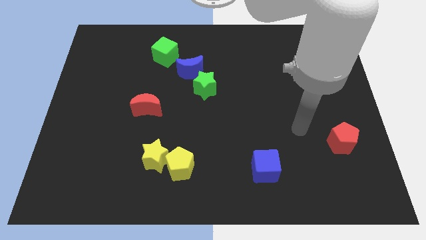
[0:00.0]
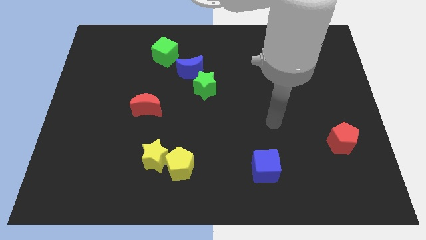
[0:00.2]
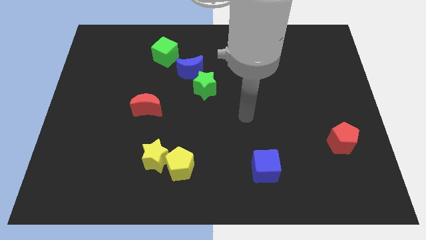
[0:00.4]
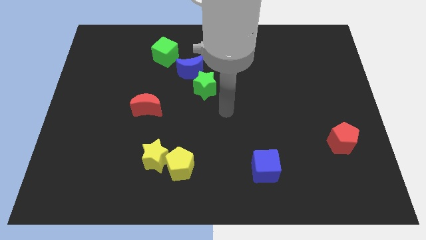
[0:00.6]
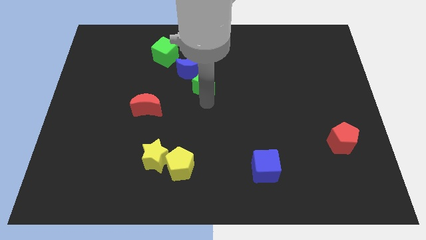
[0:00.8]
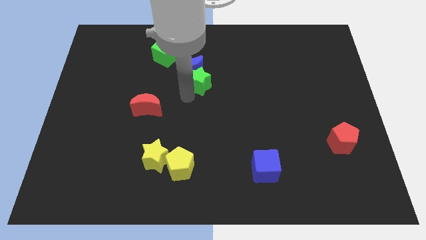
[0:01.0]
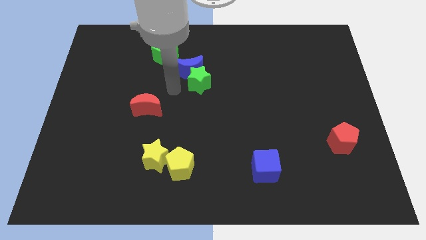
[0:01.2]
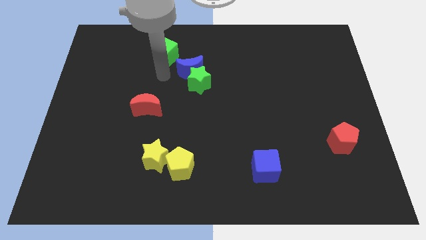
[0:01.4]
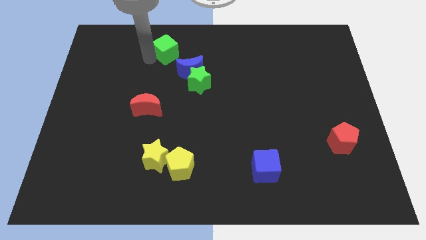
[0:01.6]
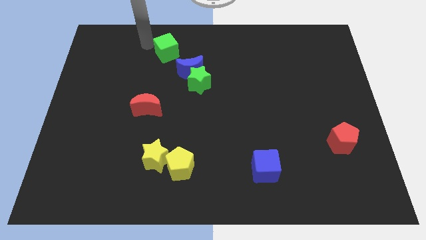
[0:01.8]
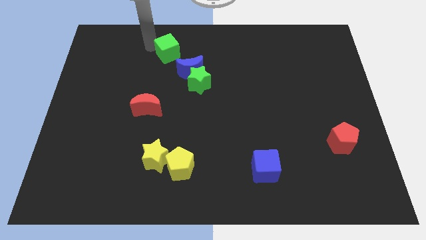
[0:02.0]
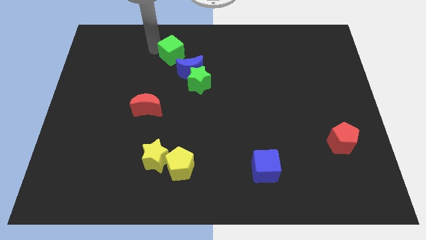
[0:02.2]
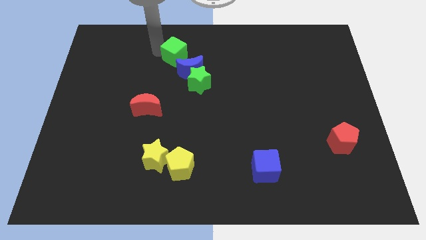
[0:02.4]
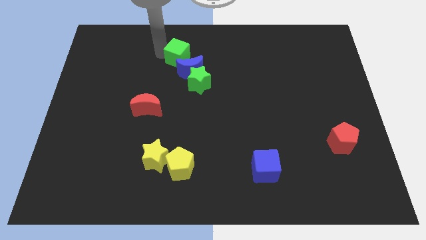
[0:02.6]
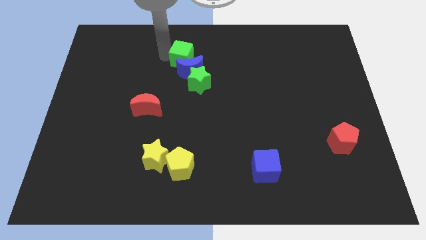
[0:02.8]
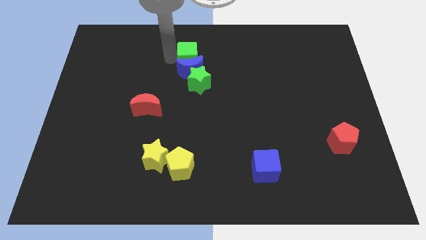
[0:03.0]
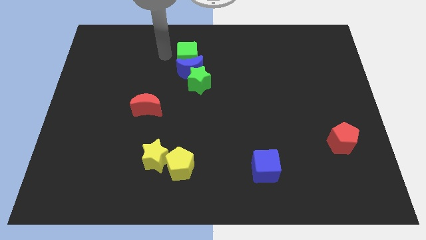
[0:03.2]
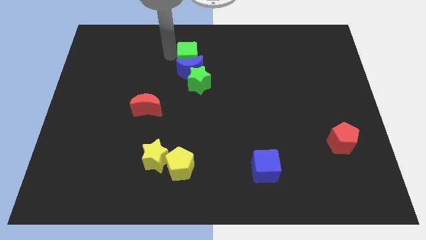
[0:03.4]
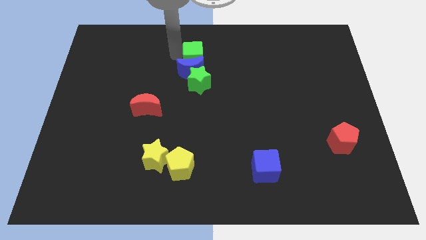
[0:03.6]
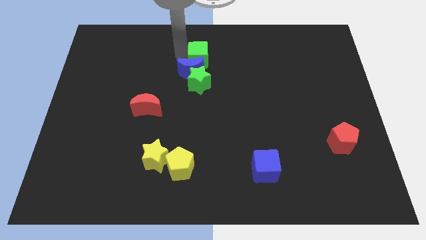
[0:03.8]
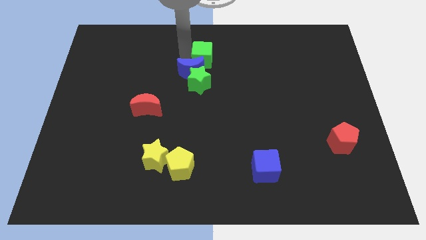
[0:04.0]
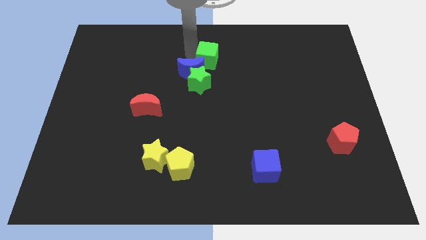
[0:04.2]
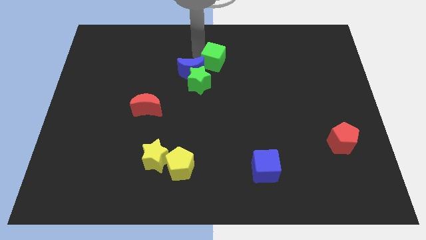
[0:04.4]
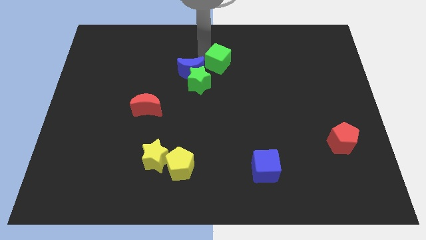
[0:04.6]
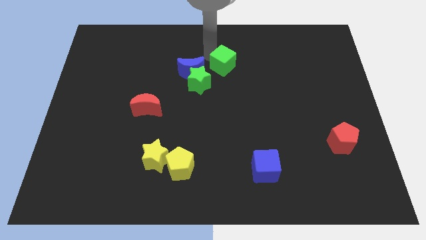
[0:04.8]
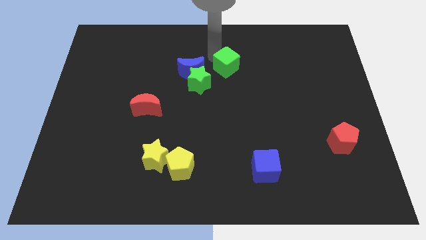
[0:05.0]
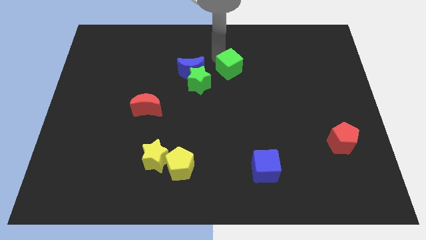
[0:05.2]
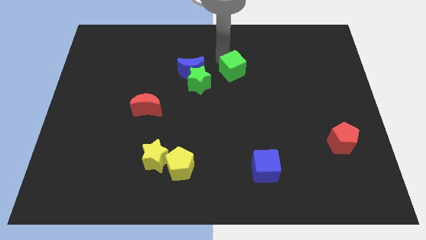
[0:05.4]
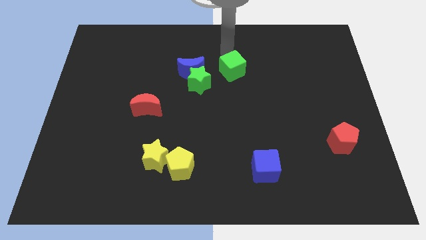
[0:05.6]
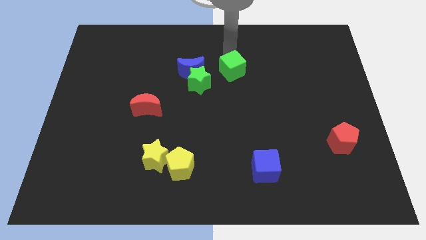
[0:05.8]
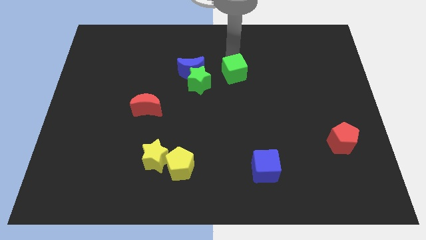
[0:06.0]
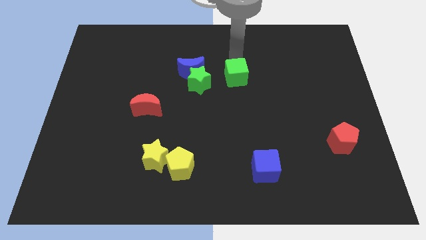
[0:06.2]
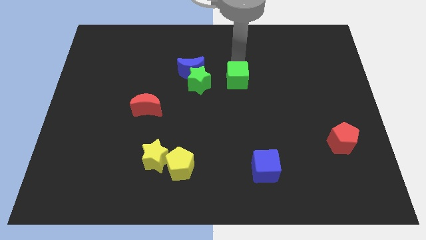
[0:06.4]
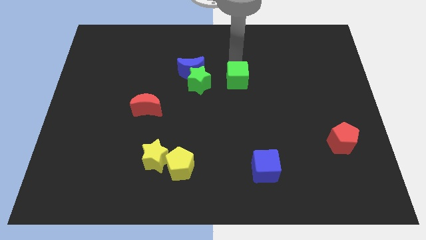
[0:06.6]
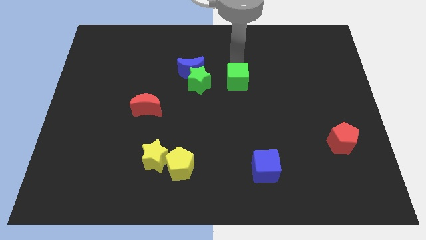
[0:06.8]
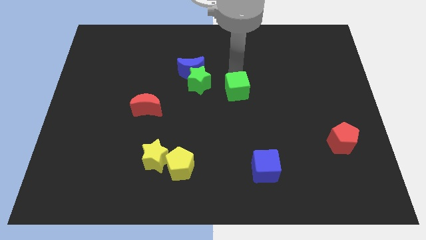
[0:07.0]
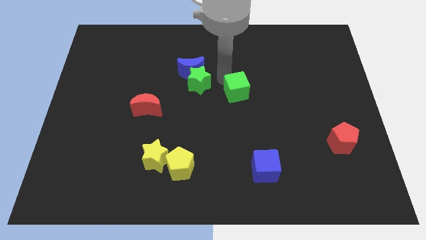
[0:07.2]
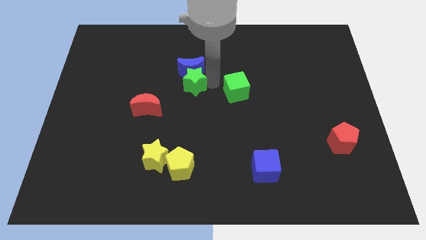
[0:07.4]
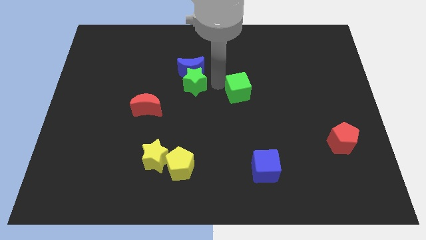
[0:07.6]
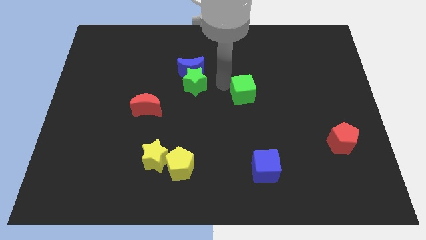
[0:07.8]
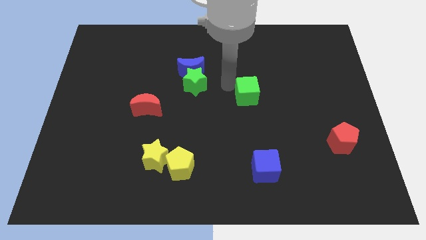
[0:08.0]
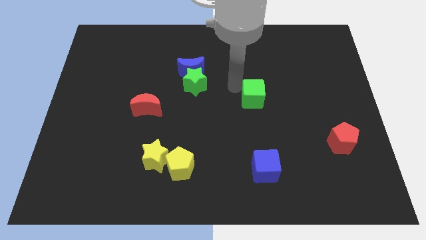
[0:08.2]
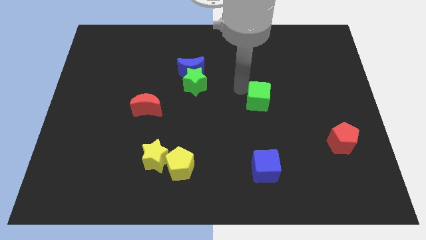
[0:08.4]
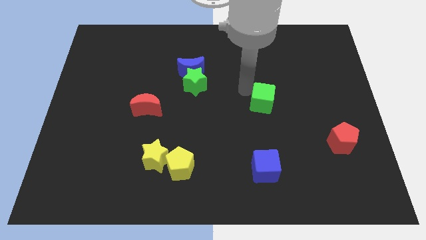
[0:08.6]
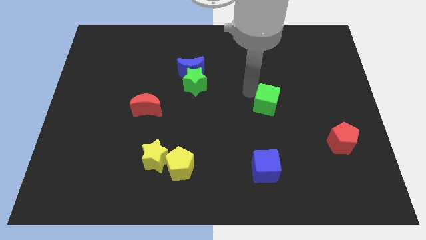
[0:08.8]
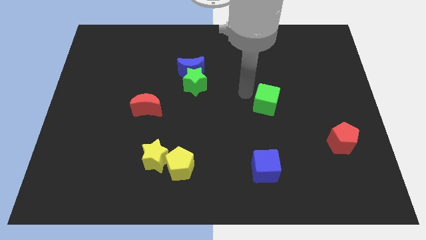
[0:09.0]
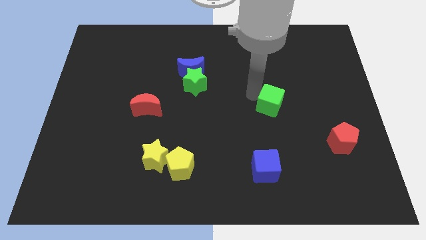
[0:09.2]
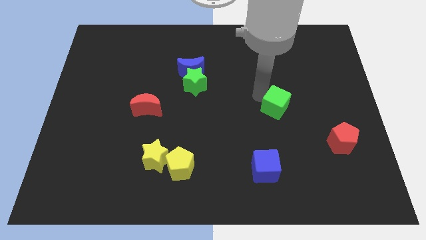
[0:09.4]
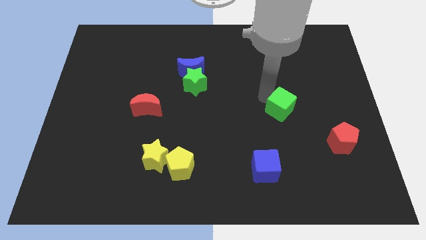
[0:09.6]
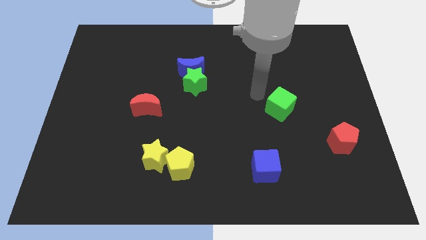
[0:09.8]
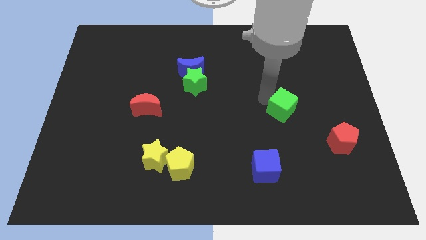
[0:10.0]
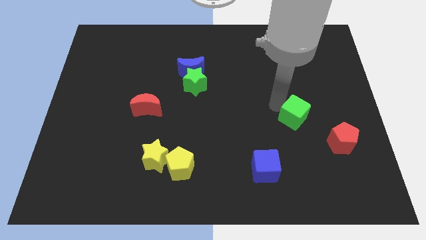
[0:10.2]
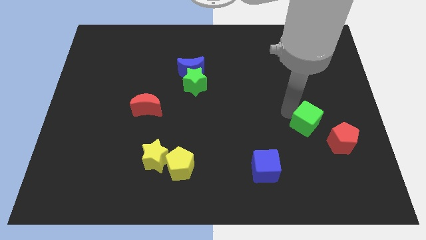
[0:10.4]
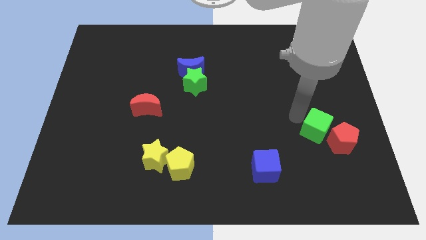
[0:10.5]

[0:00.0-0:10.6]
move the green cube towards the red pentagon

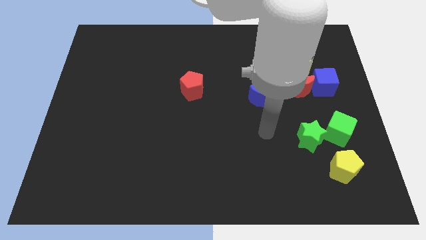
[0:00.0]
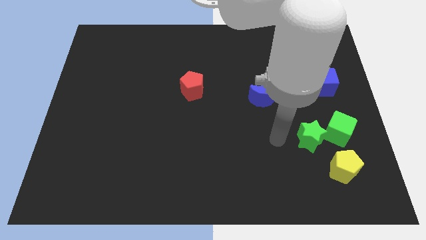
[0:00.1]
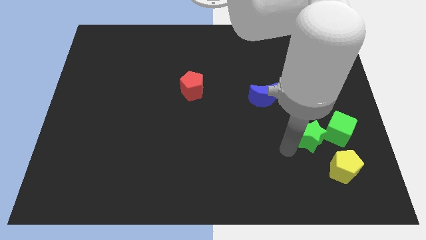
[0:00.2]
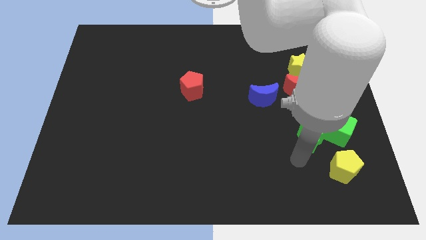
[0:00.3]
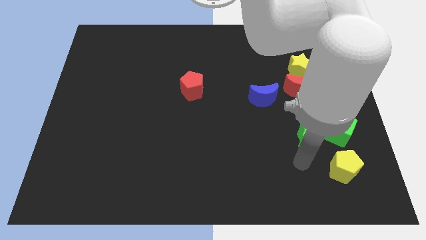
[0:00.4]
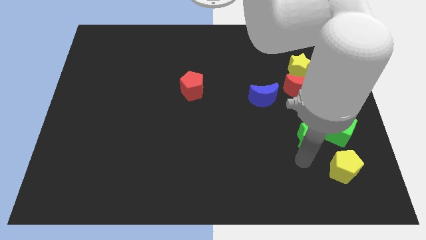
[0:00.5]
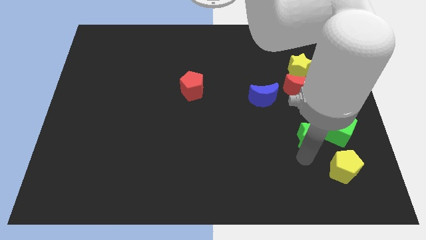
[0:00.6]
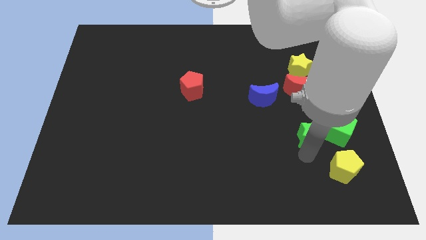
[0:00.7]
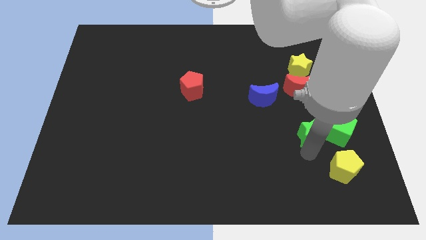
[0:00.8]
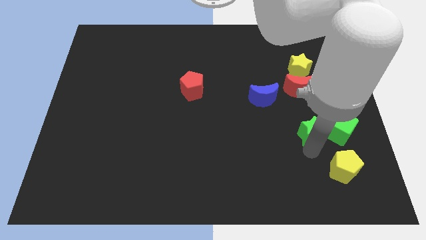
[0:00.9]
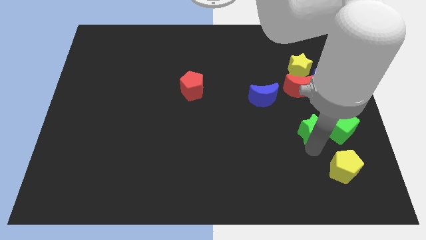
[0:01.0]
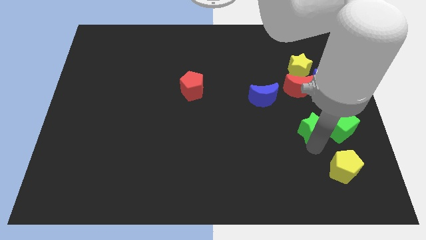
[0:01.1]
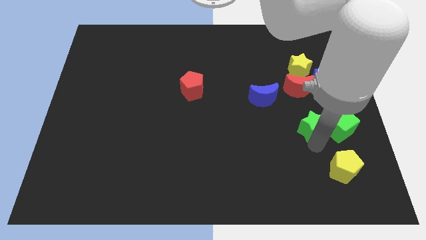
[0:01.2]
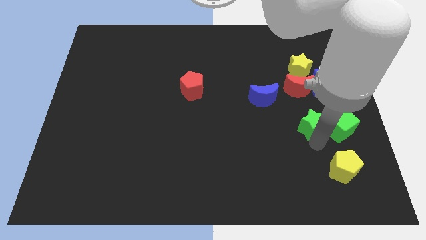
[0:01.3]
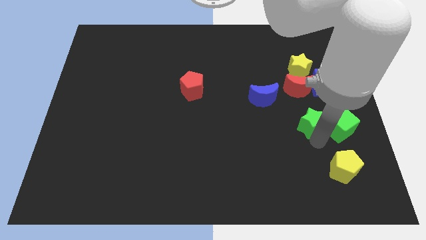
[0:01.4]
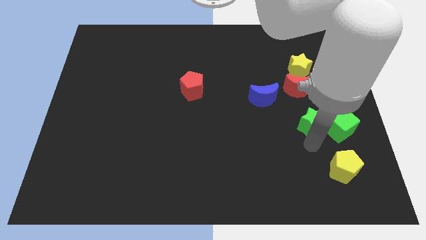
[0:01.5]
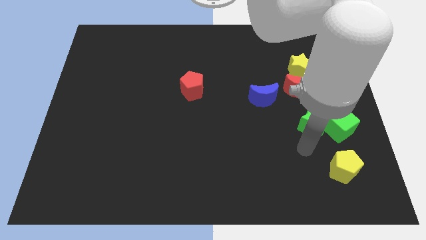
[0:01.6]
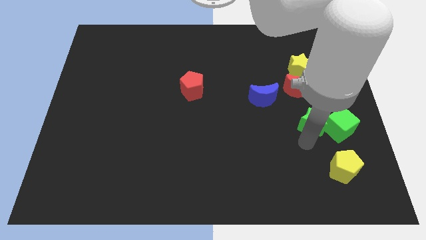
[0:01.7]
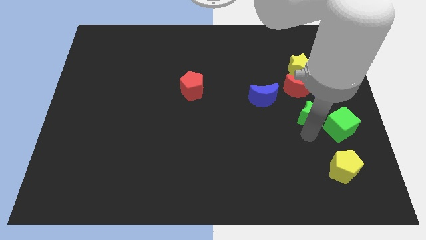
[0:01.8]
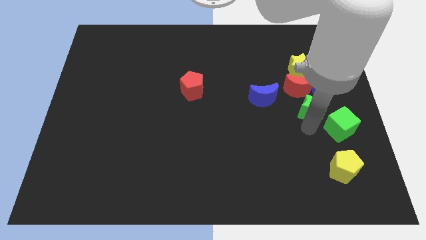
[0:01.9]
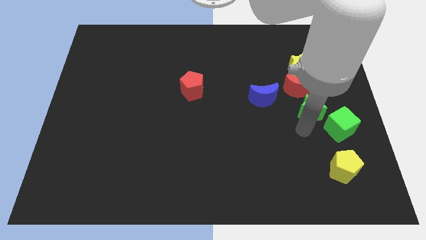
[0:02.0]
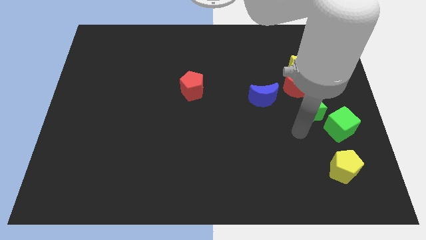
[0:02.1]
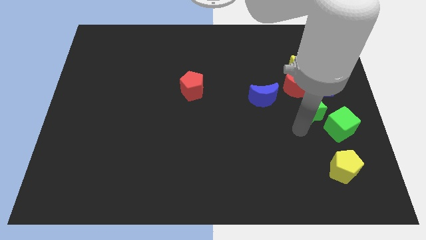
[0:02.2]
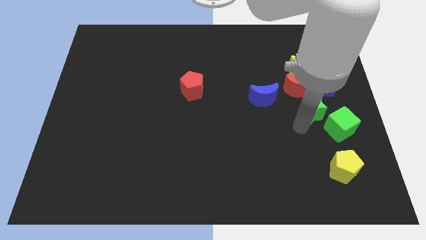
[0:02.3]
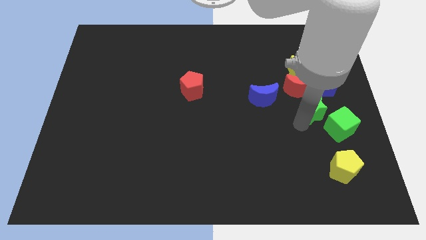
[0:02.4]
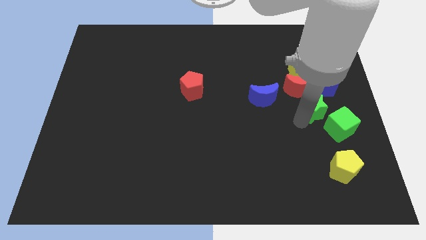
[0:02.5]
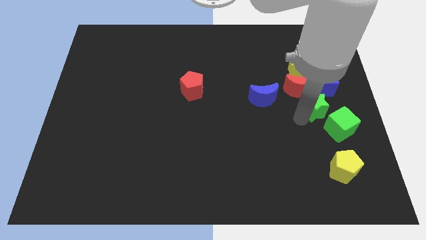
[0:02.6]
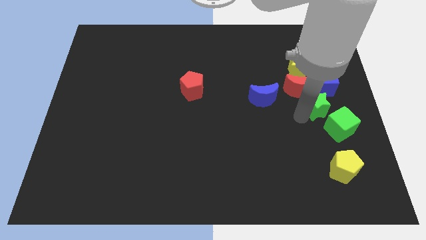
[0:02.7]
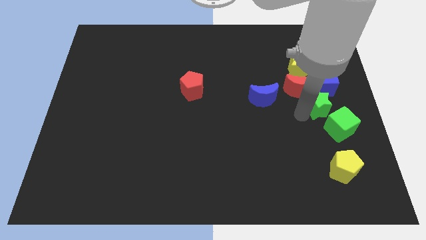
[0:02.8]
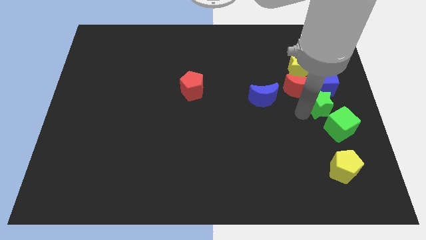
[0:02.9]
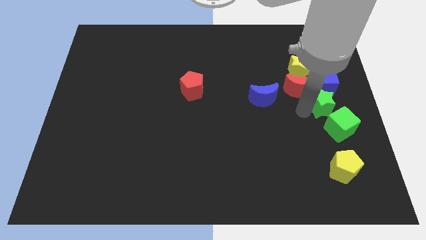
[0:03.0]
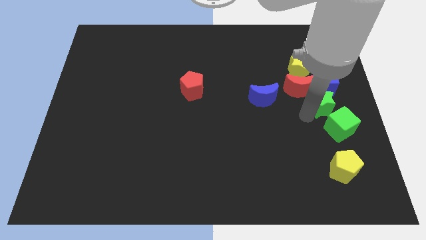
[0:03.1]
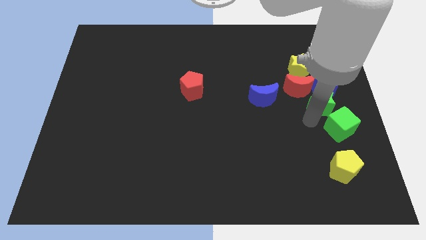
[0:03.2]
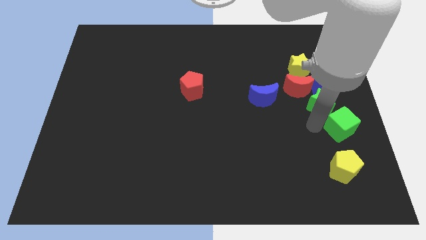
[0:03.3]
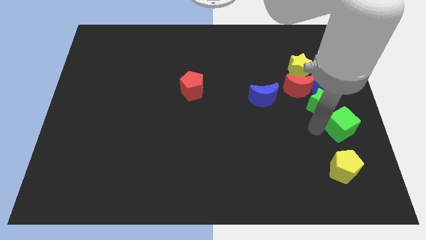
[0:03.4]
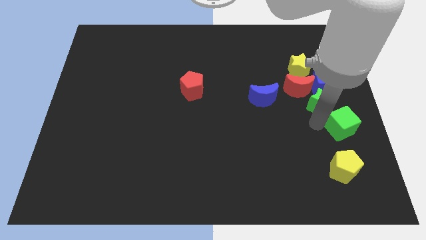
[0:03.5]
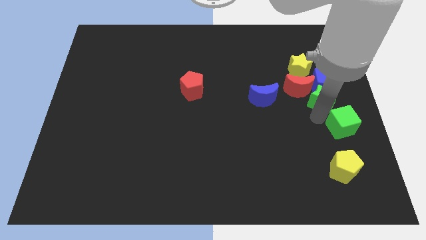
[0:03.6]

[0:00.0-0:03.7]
slide the green star to the blue cube
